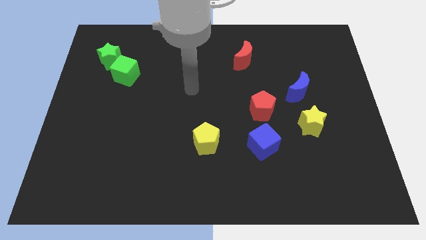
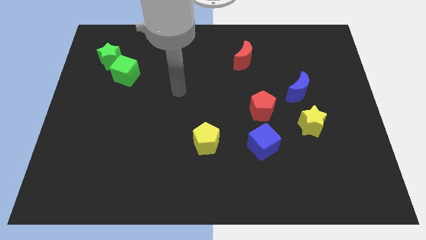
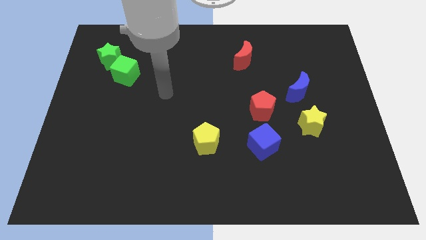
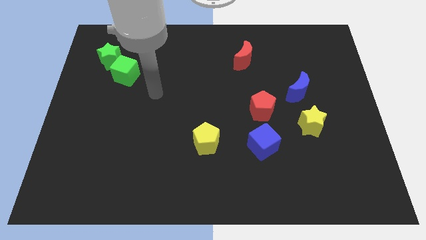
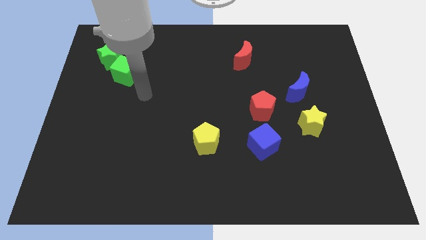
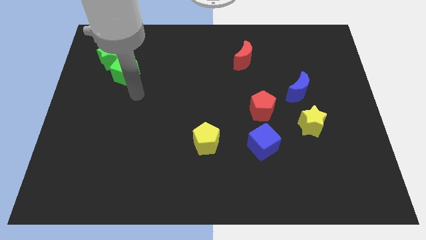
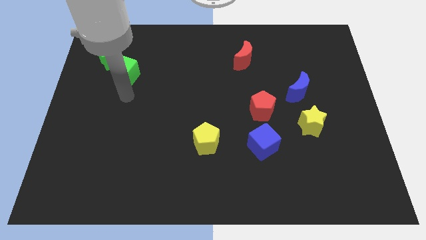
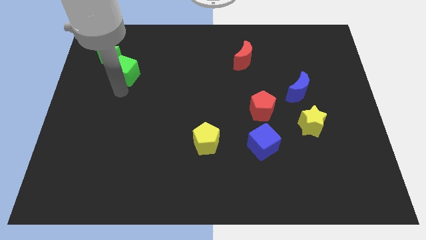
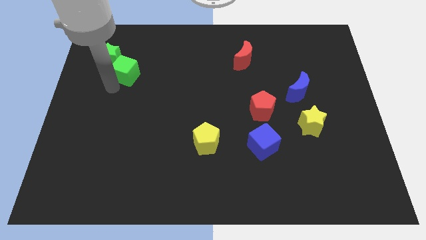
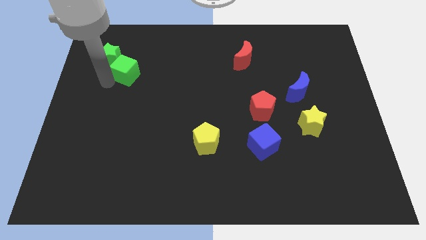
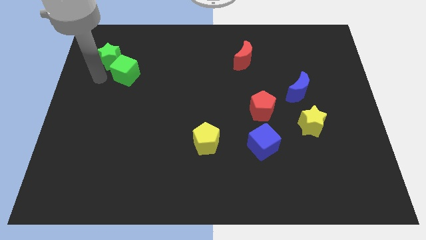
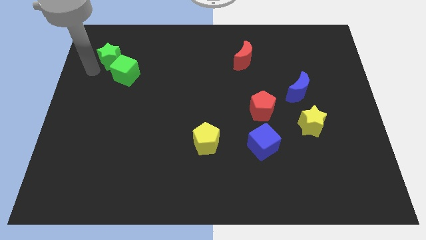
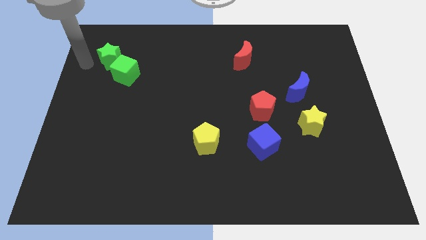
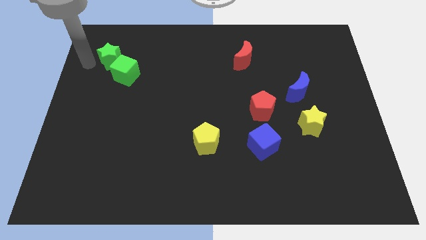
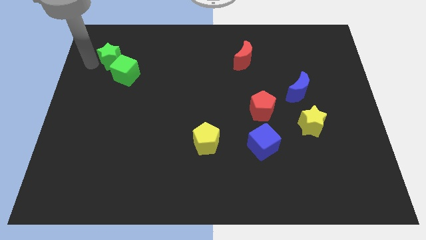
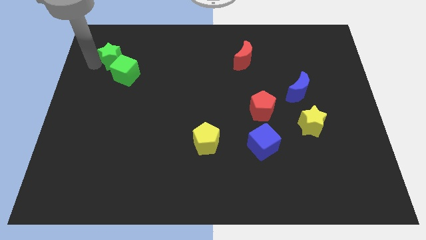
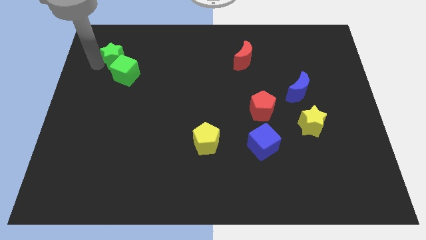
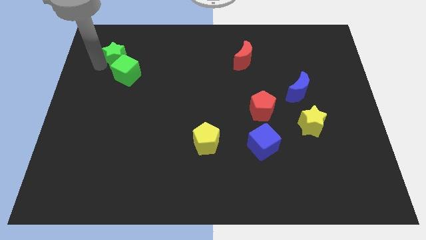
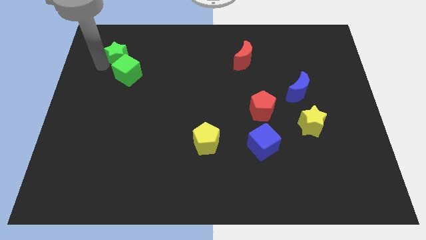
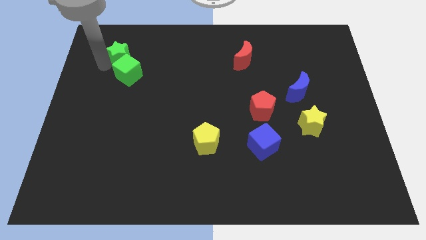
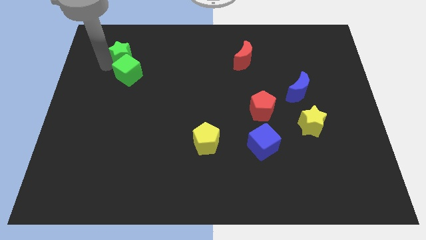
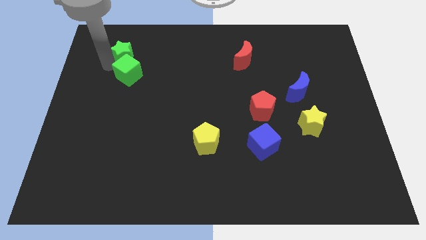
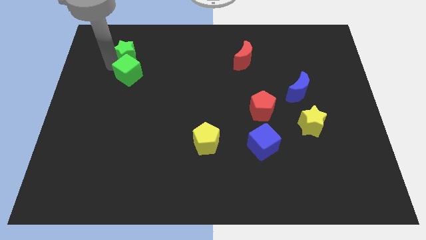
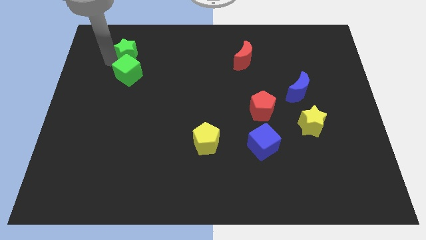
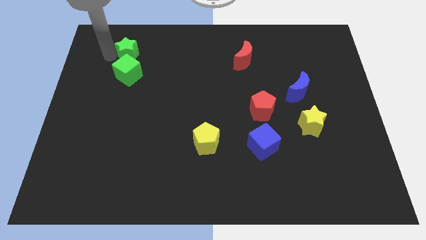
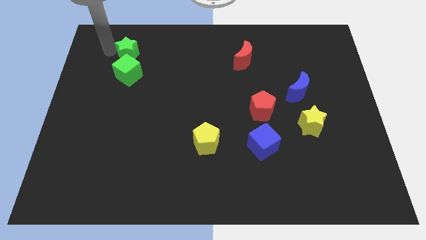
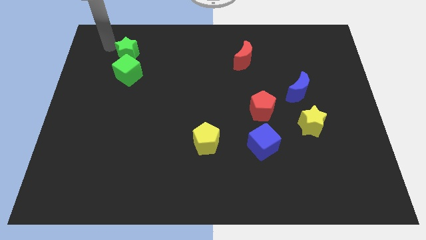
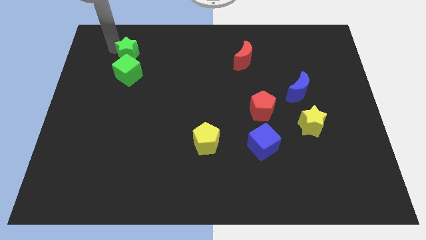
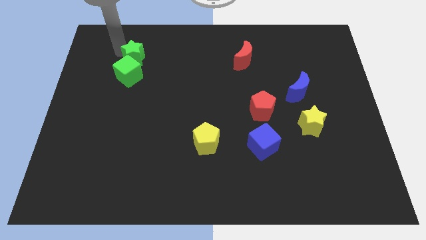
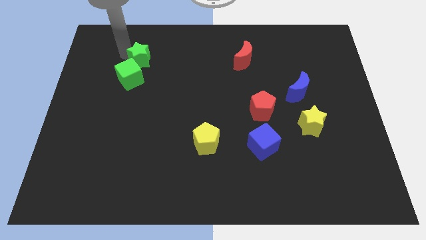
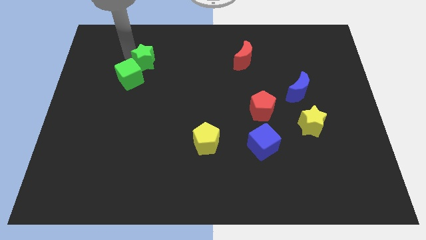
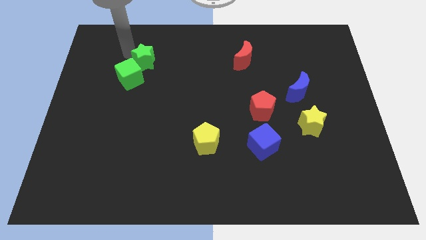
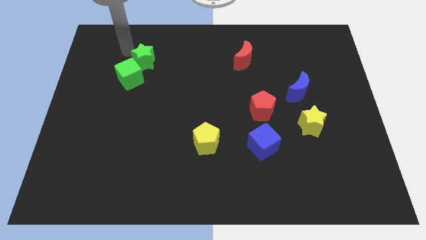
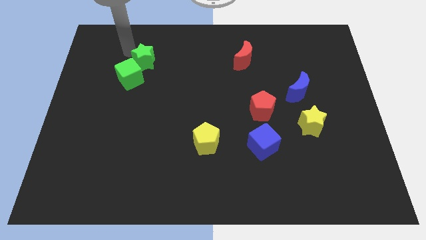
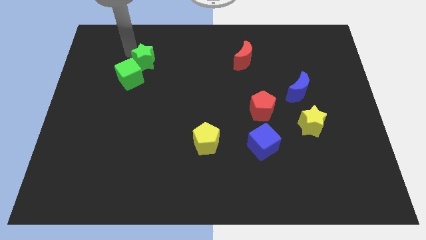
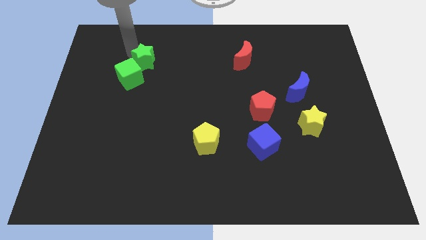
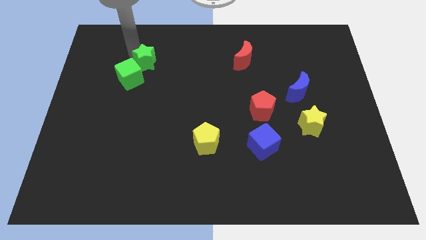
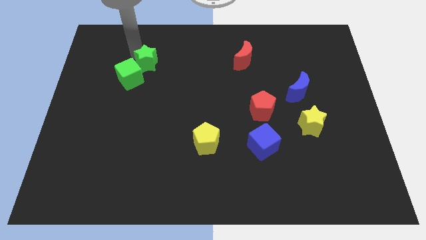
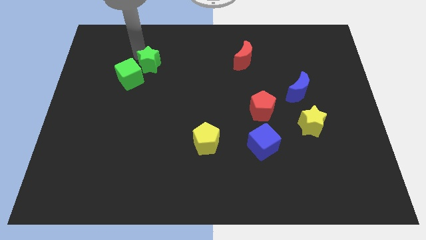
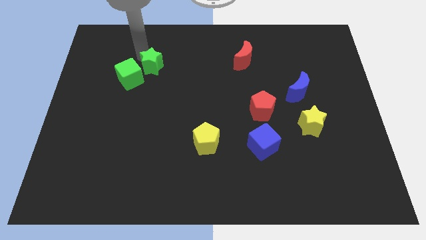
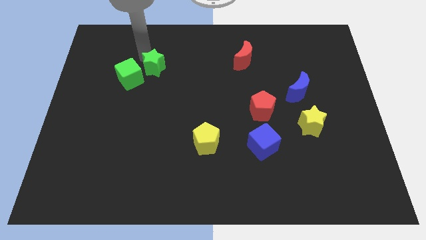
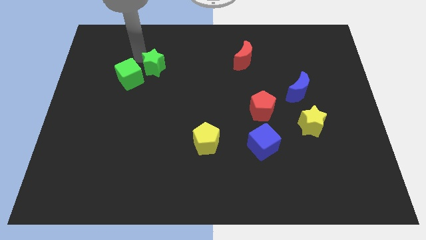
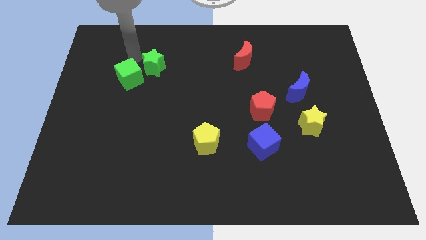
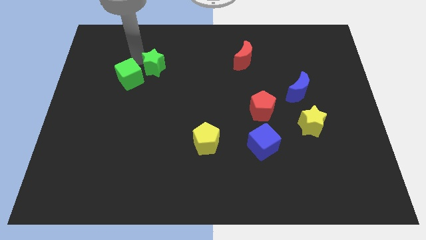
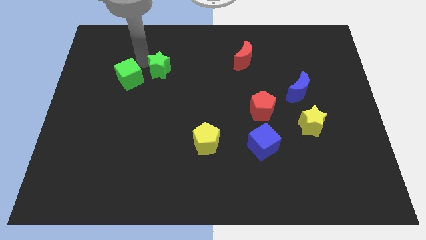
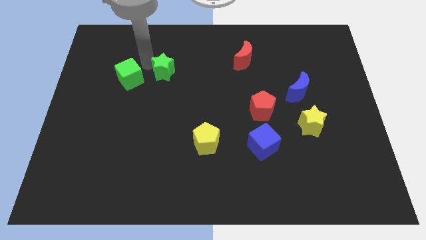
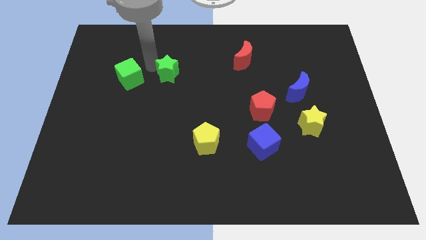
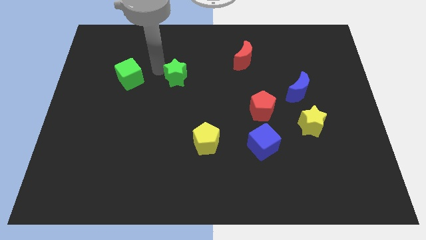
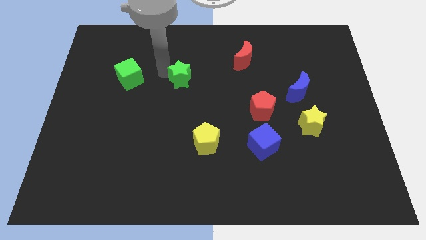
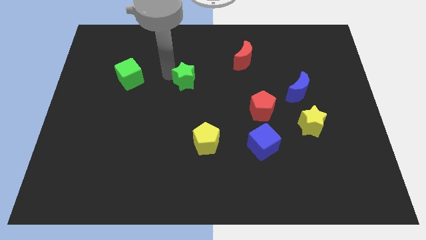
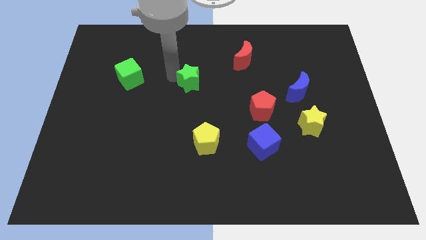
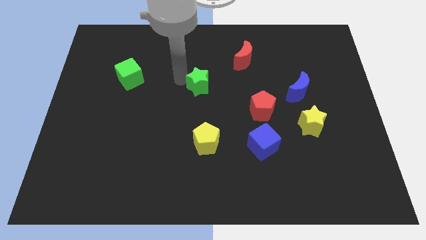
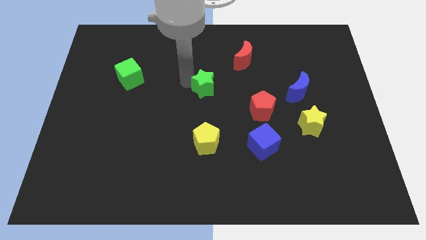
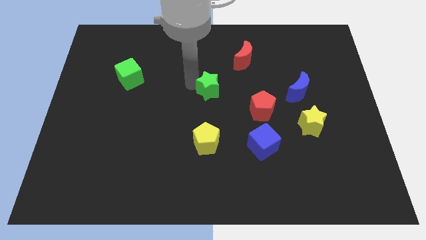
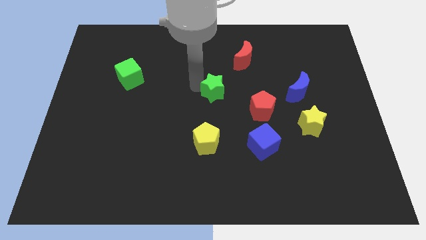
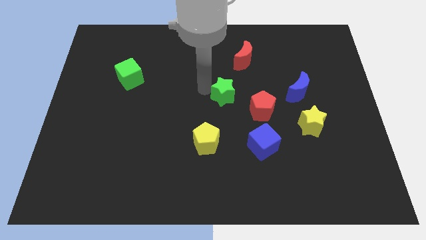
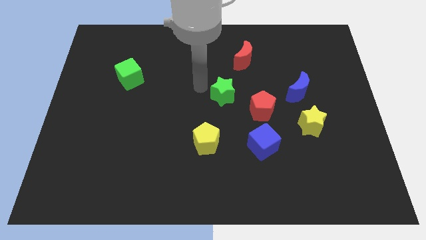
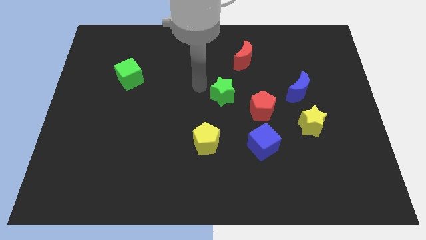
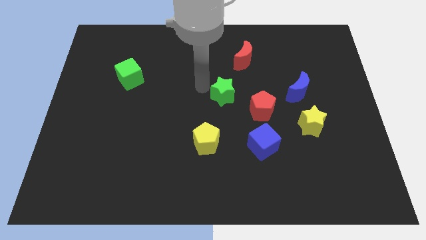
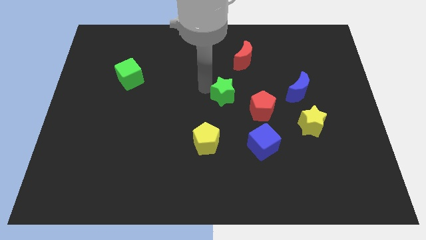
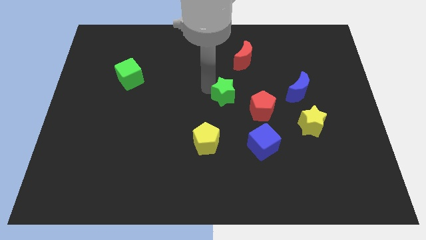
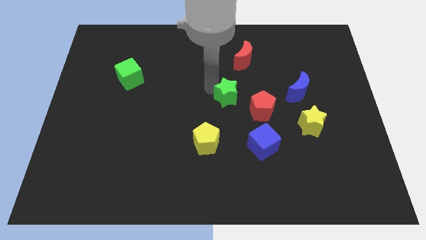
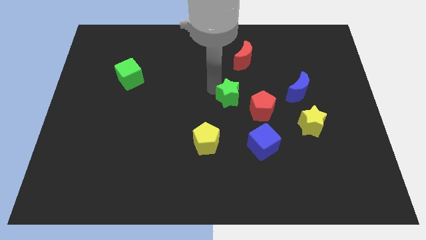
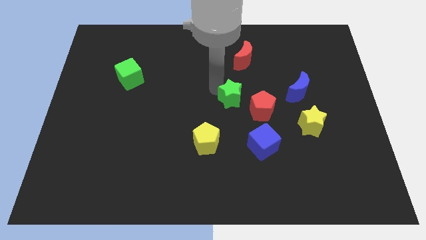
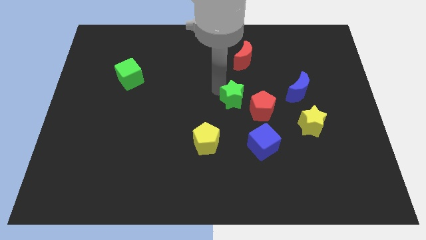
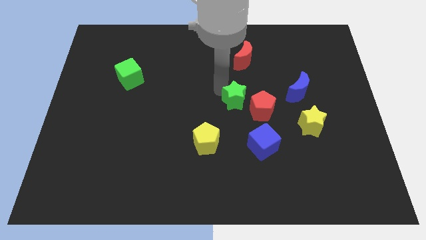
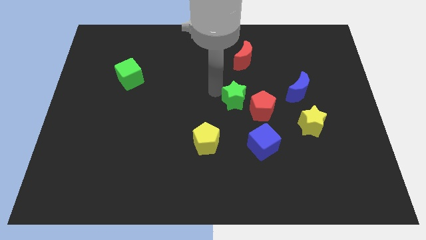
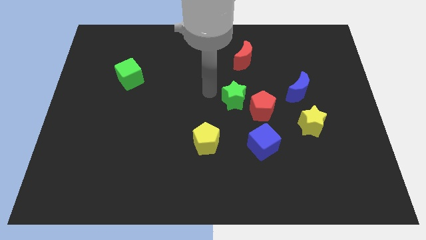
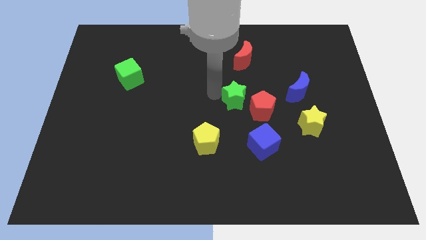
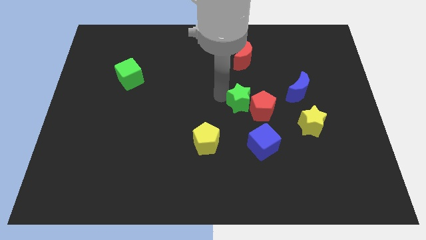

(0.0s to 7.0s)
slide the green star close to the red pentagon
